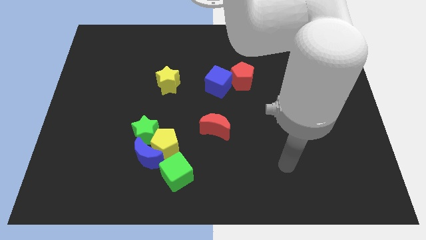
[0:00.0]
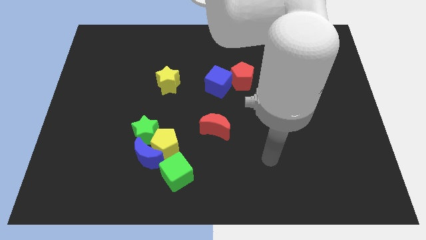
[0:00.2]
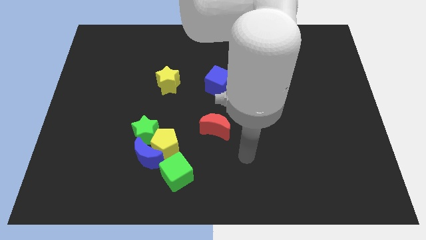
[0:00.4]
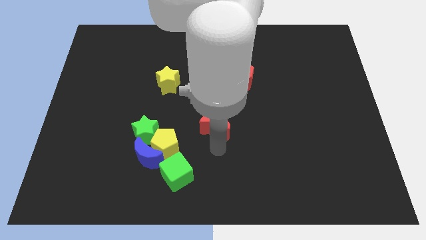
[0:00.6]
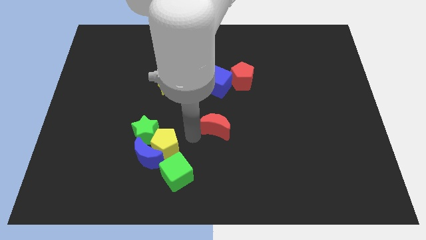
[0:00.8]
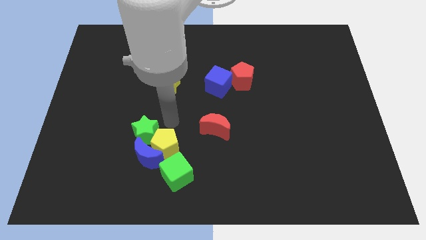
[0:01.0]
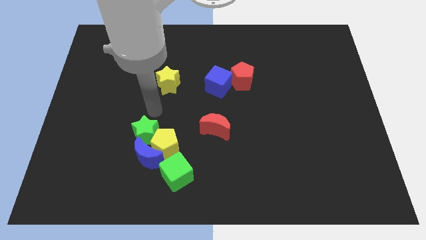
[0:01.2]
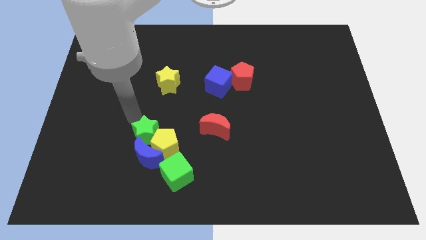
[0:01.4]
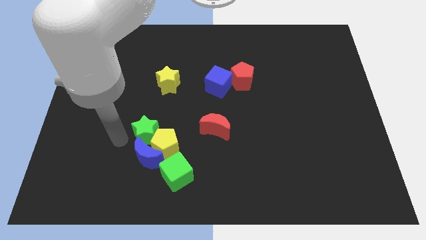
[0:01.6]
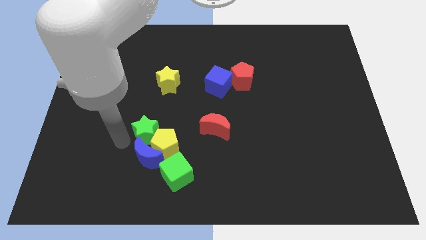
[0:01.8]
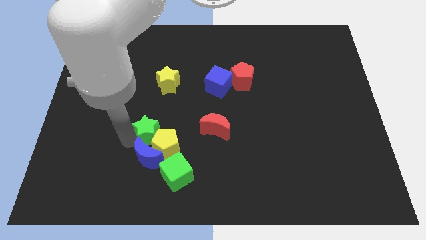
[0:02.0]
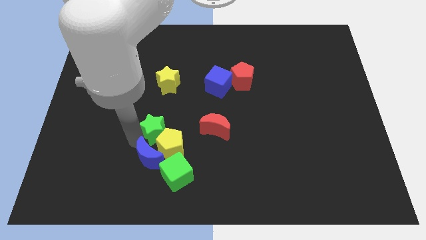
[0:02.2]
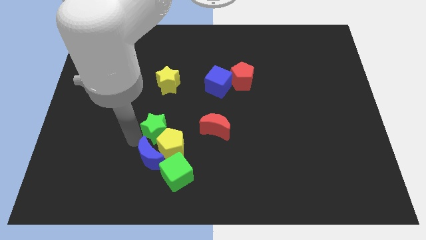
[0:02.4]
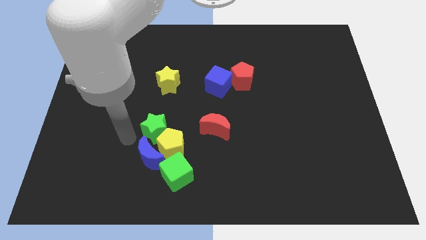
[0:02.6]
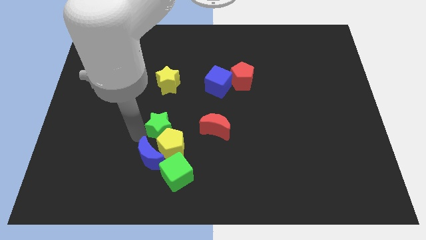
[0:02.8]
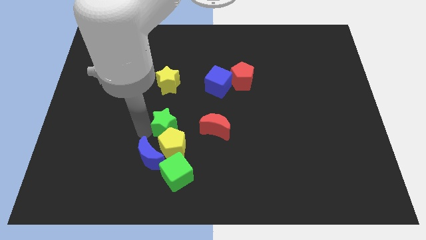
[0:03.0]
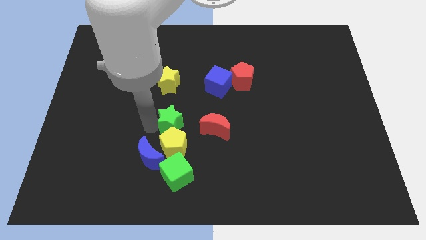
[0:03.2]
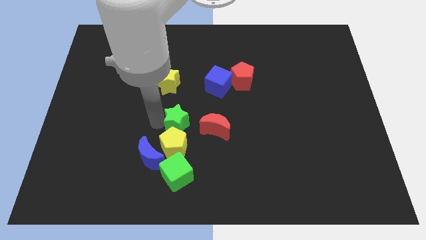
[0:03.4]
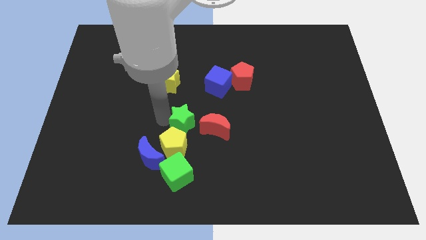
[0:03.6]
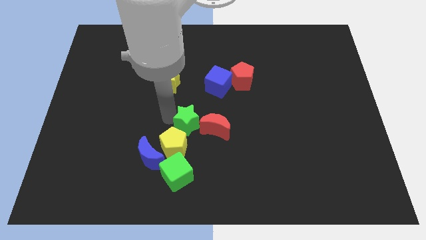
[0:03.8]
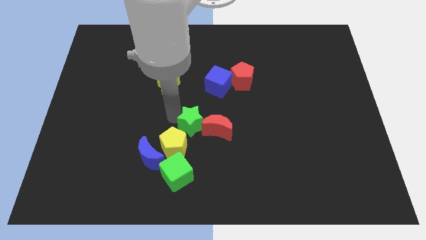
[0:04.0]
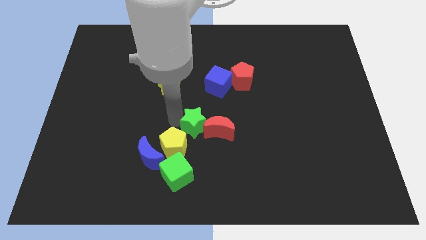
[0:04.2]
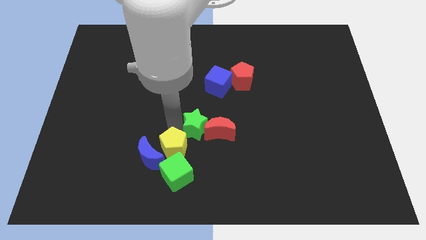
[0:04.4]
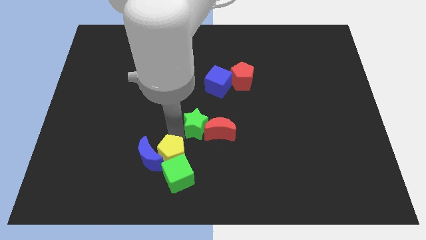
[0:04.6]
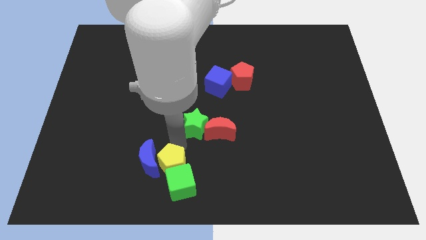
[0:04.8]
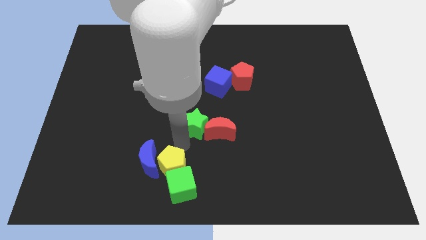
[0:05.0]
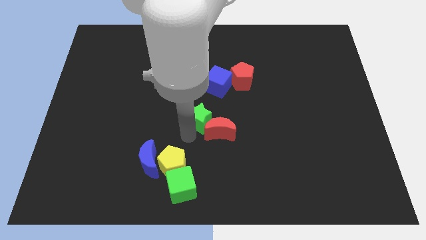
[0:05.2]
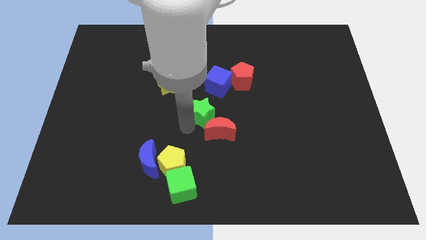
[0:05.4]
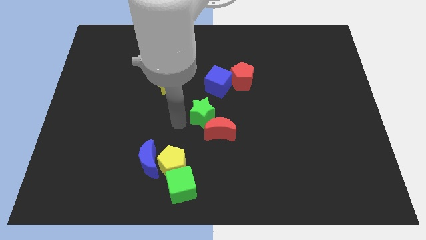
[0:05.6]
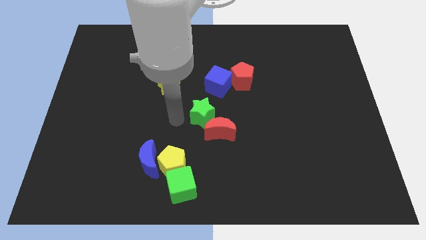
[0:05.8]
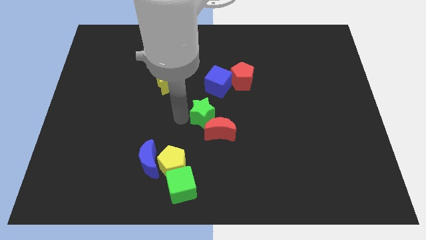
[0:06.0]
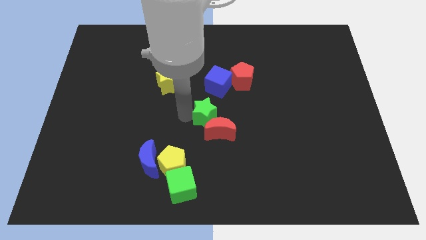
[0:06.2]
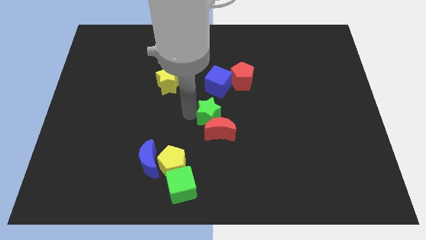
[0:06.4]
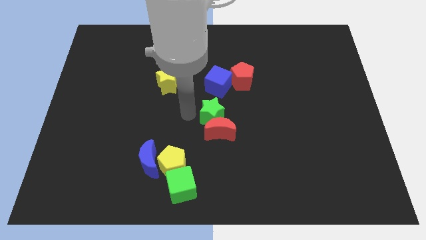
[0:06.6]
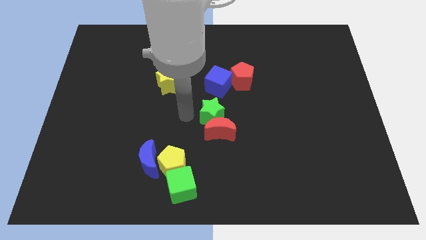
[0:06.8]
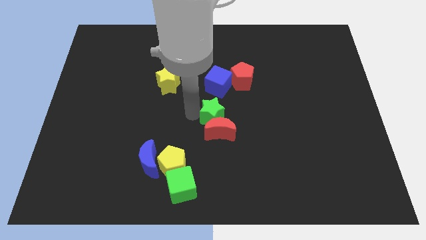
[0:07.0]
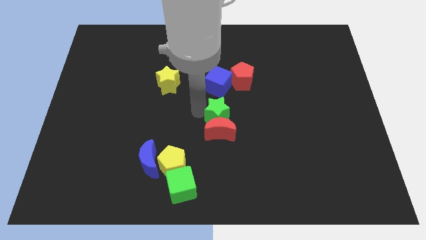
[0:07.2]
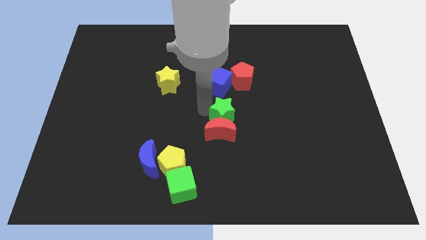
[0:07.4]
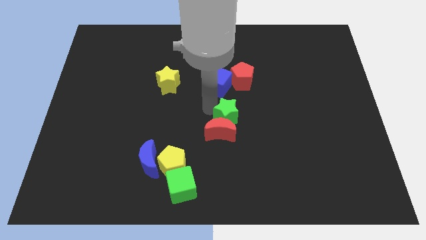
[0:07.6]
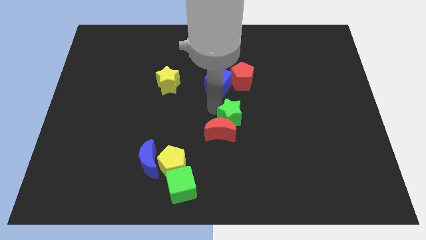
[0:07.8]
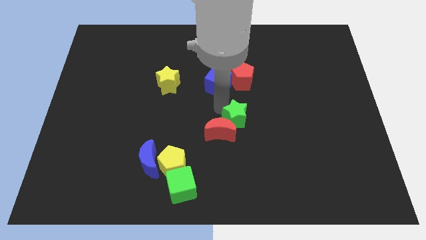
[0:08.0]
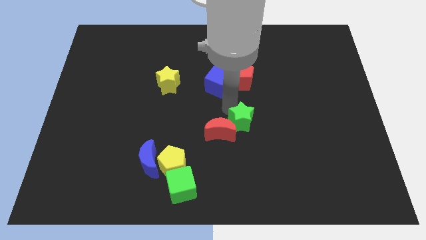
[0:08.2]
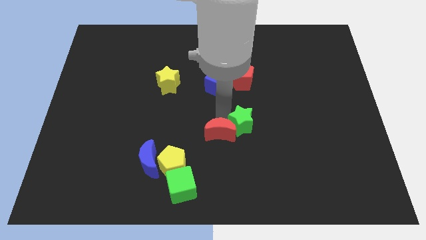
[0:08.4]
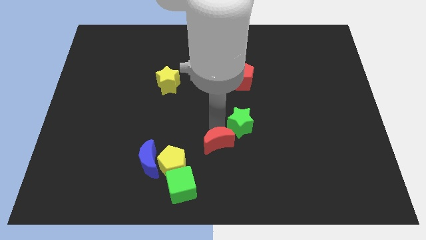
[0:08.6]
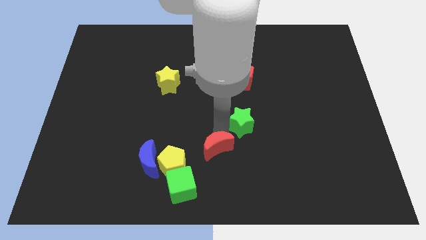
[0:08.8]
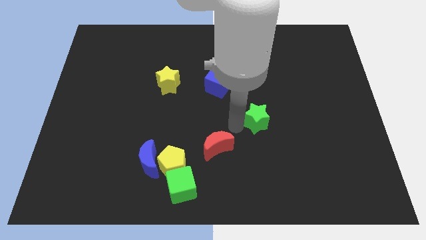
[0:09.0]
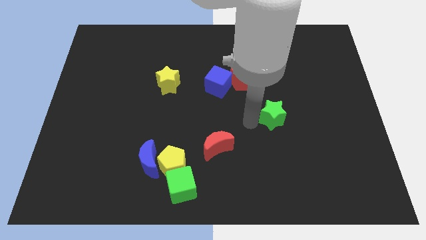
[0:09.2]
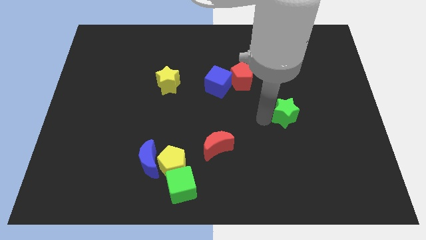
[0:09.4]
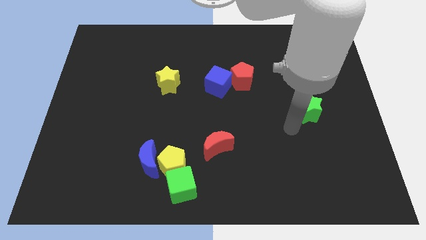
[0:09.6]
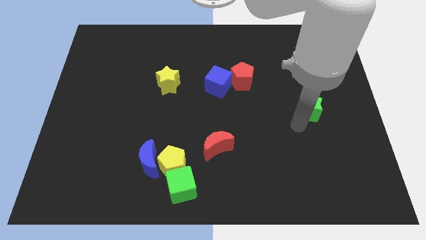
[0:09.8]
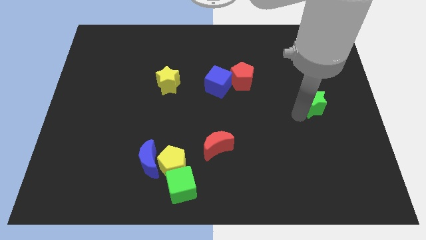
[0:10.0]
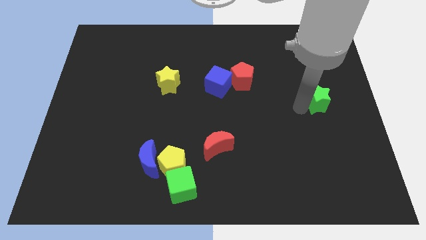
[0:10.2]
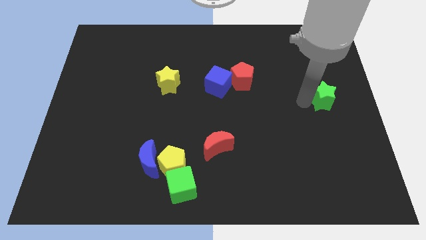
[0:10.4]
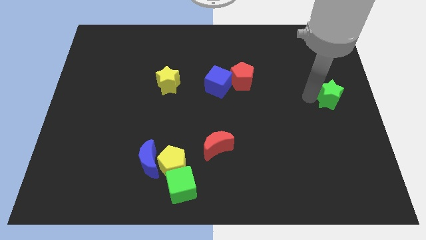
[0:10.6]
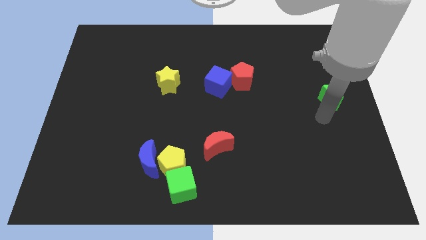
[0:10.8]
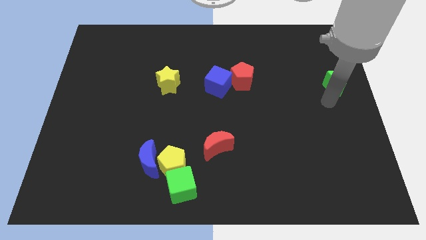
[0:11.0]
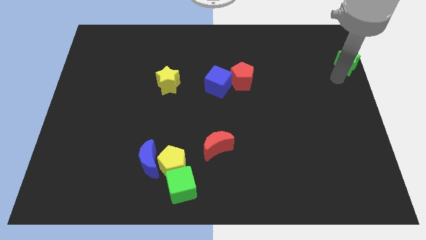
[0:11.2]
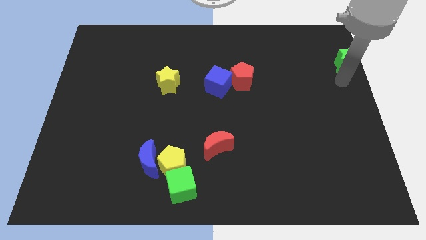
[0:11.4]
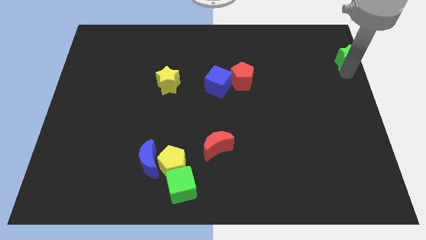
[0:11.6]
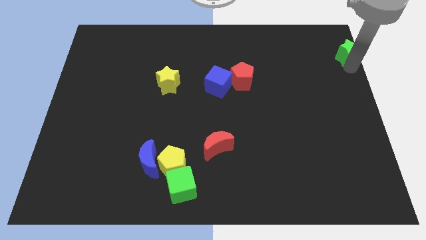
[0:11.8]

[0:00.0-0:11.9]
move the green star to the upper right corner
